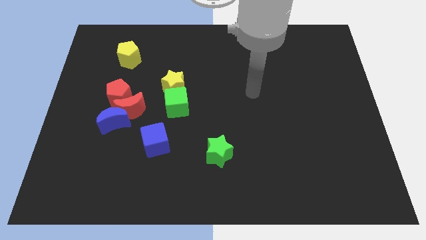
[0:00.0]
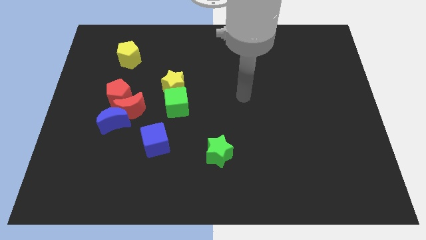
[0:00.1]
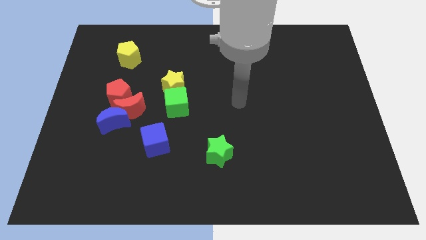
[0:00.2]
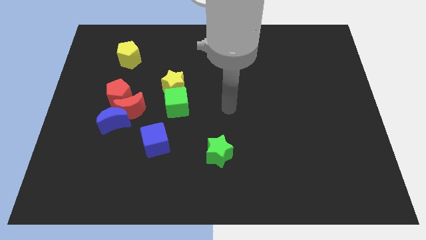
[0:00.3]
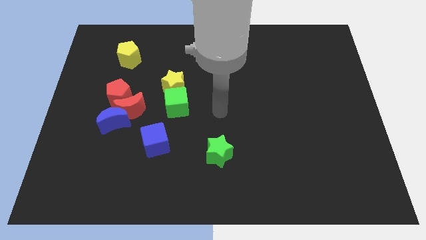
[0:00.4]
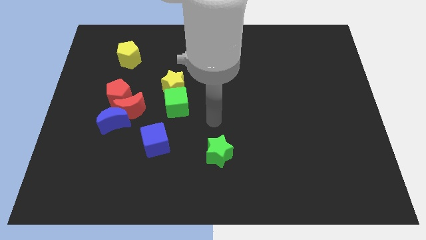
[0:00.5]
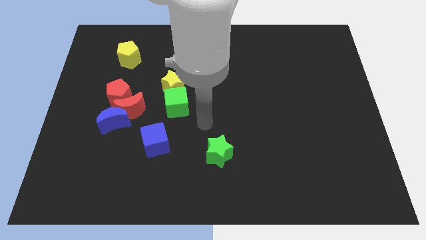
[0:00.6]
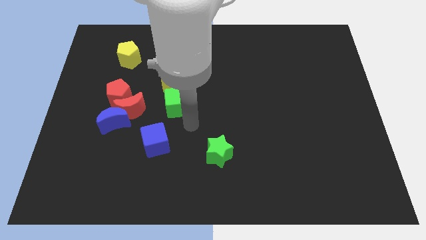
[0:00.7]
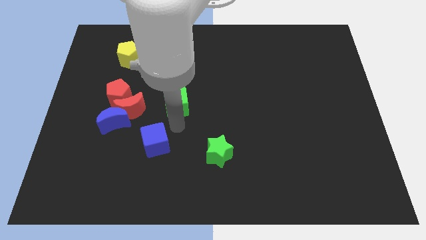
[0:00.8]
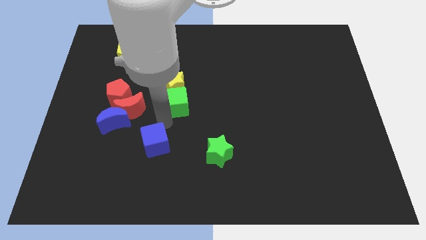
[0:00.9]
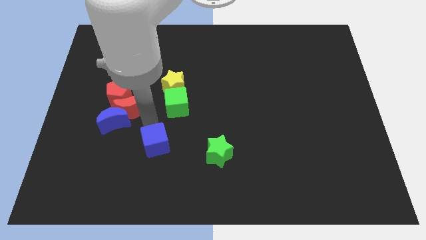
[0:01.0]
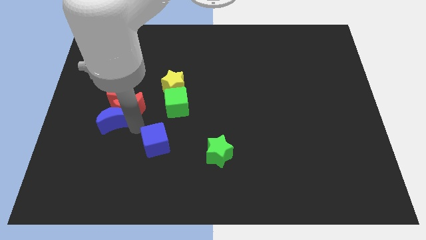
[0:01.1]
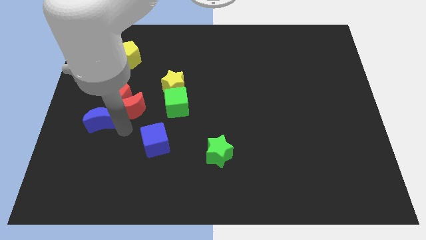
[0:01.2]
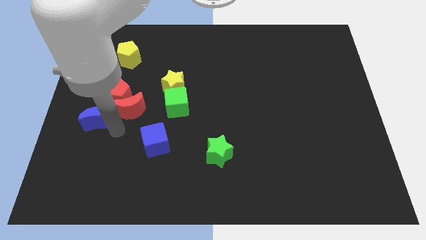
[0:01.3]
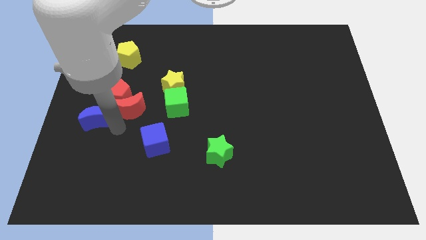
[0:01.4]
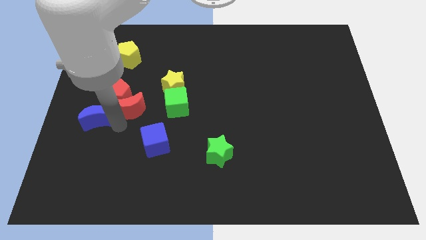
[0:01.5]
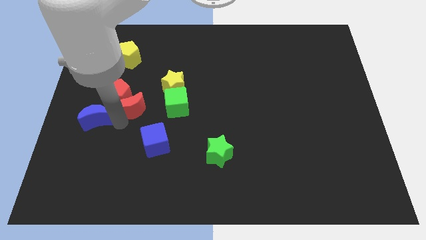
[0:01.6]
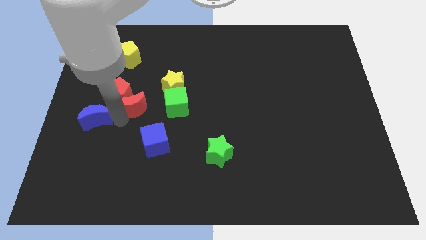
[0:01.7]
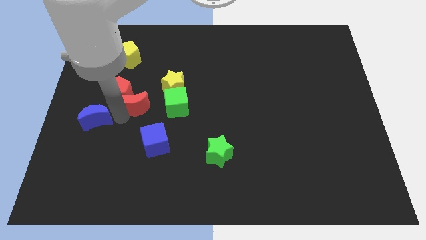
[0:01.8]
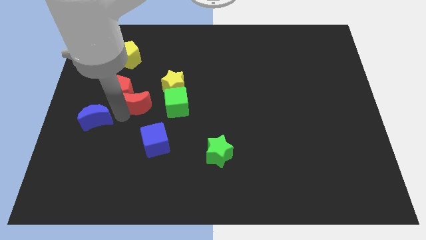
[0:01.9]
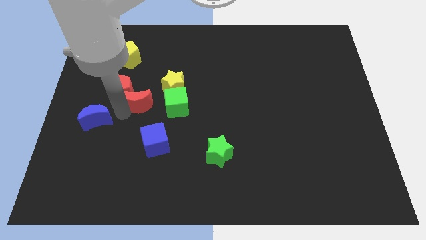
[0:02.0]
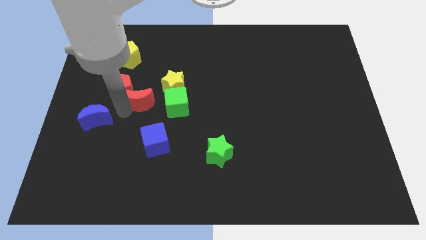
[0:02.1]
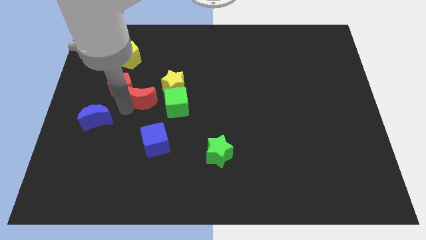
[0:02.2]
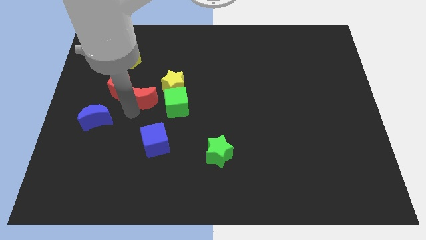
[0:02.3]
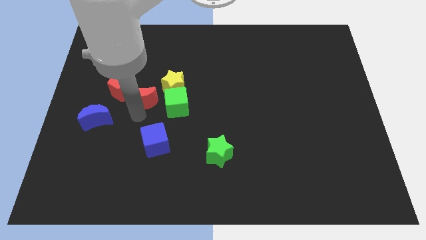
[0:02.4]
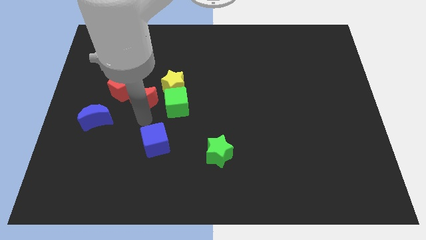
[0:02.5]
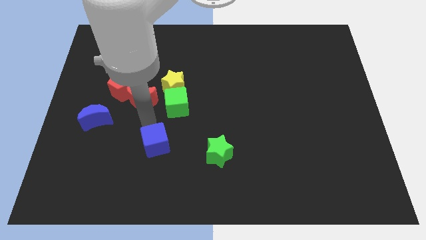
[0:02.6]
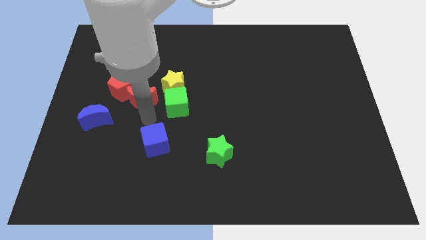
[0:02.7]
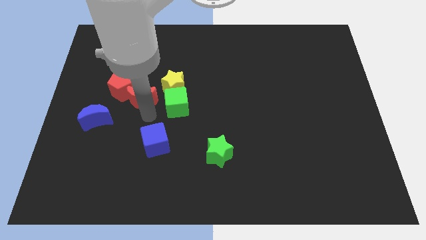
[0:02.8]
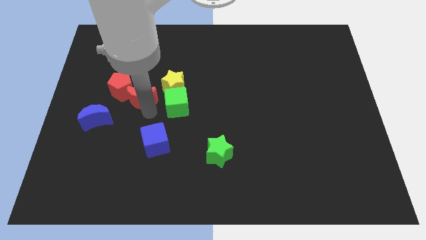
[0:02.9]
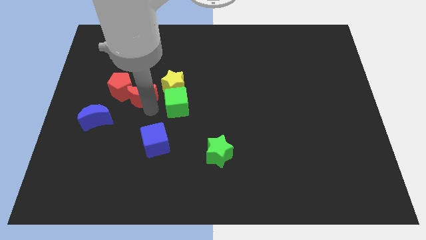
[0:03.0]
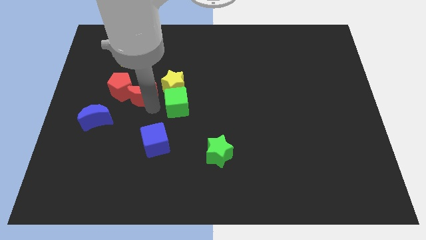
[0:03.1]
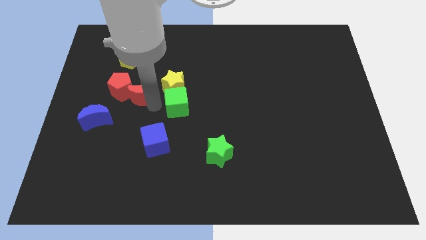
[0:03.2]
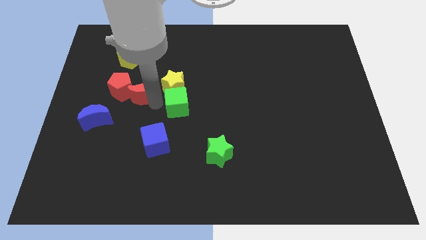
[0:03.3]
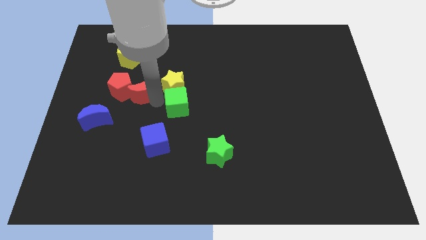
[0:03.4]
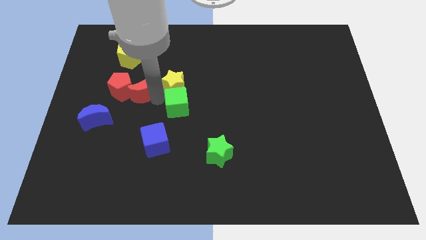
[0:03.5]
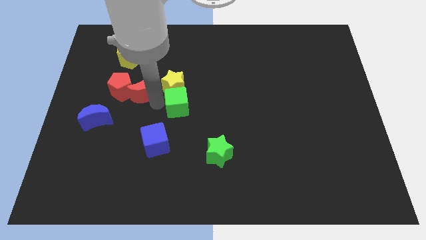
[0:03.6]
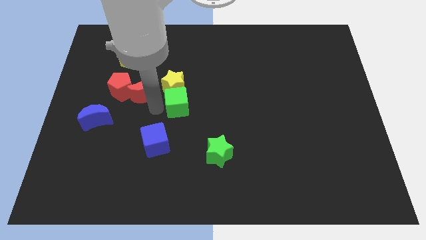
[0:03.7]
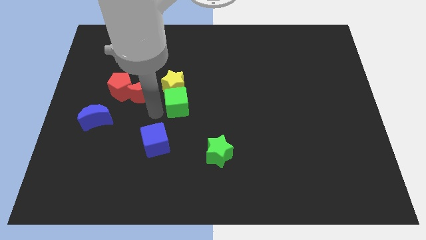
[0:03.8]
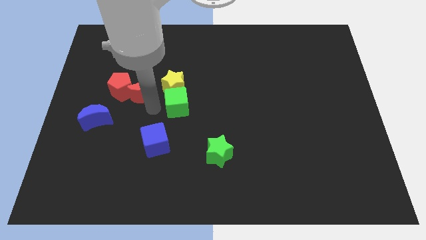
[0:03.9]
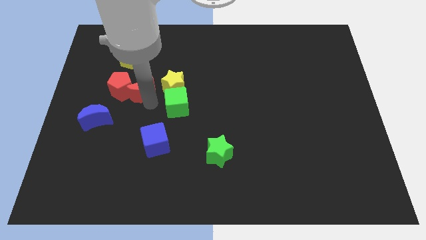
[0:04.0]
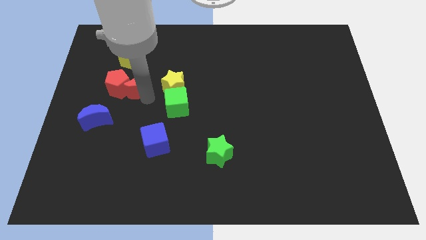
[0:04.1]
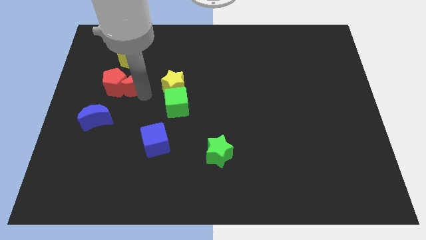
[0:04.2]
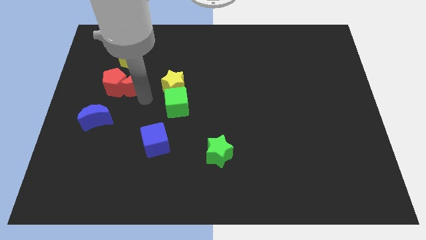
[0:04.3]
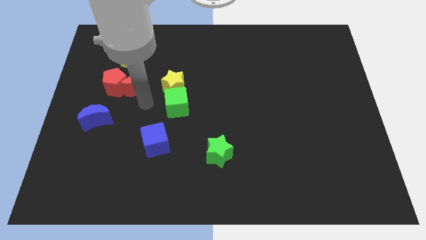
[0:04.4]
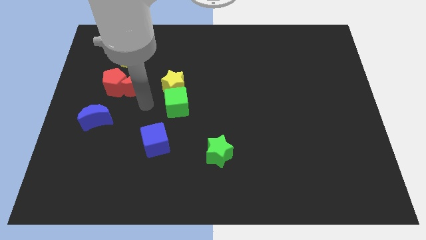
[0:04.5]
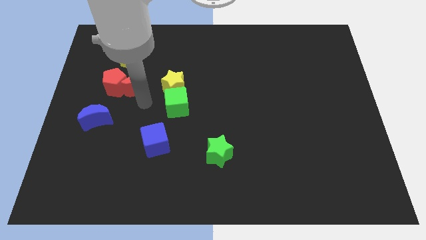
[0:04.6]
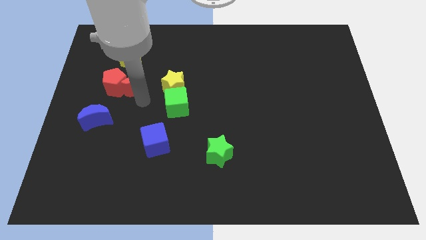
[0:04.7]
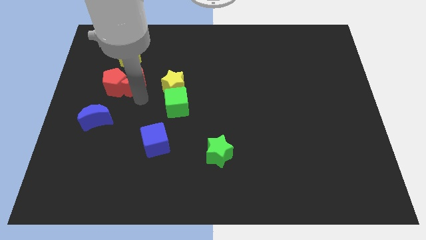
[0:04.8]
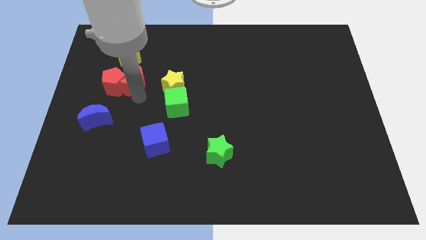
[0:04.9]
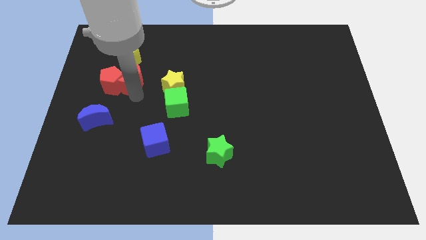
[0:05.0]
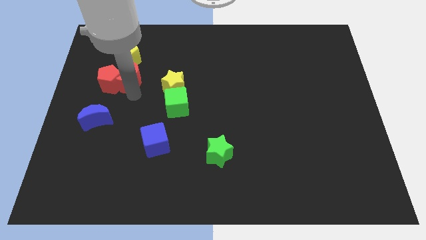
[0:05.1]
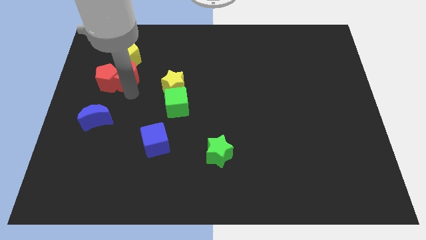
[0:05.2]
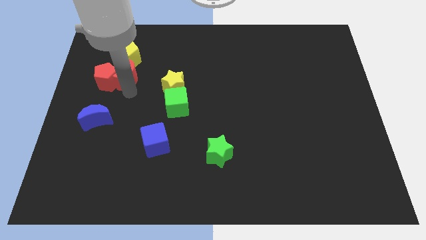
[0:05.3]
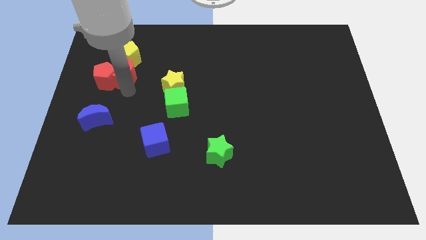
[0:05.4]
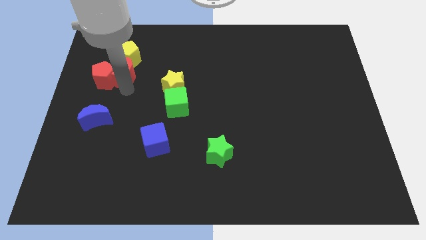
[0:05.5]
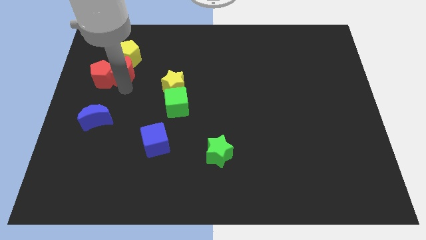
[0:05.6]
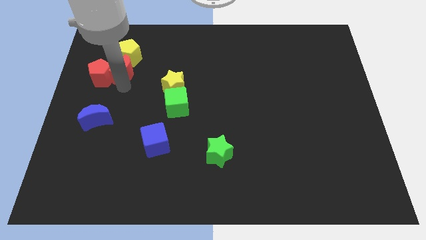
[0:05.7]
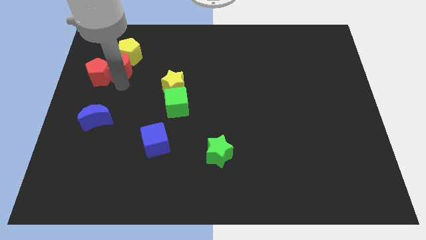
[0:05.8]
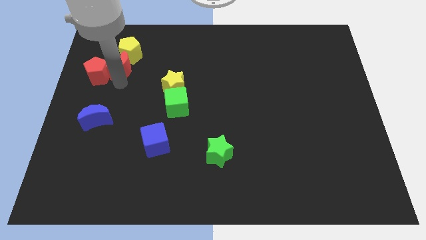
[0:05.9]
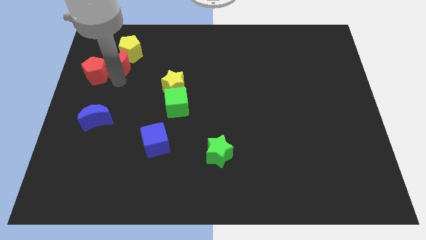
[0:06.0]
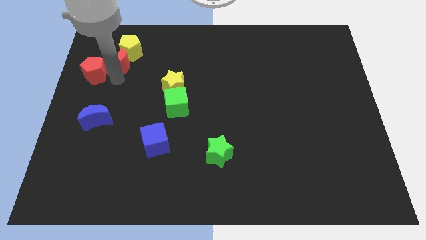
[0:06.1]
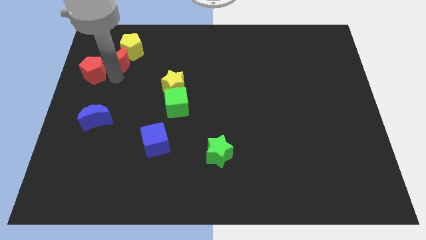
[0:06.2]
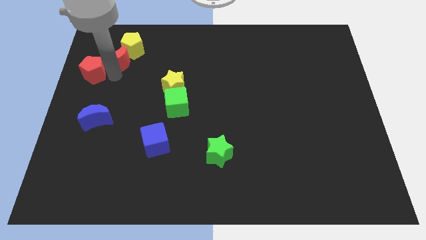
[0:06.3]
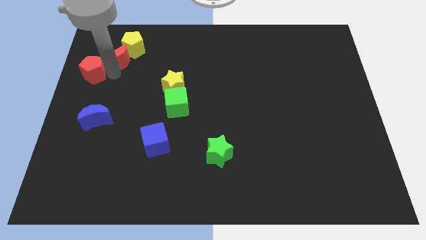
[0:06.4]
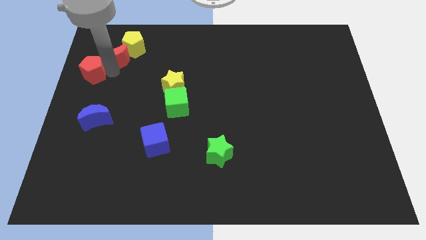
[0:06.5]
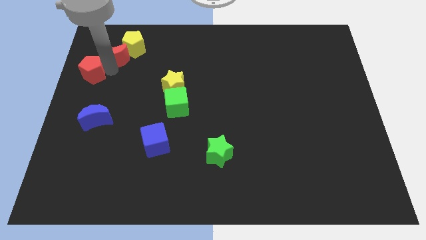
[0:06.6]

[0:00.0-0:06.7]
put the red moon close to the yellow pentagon
